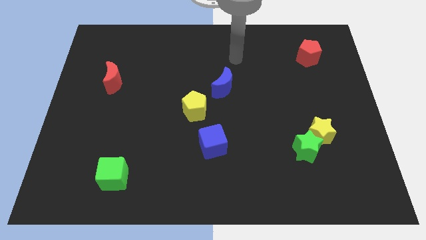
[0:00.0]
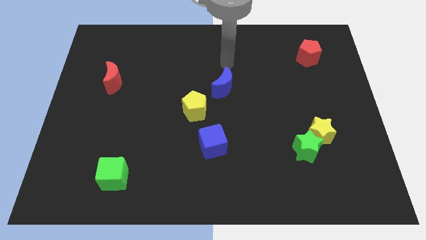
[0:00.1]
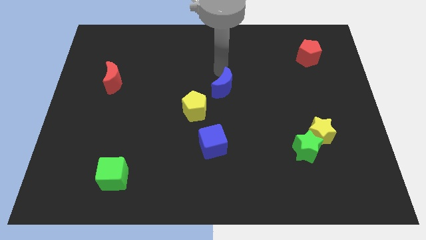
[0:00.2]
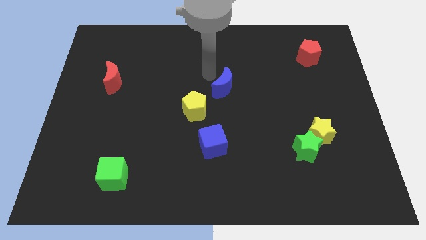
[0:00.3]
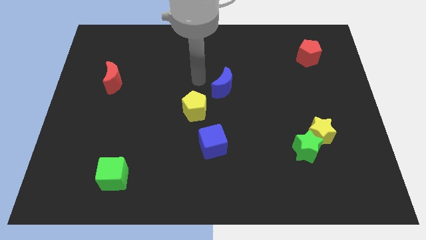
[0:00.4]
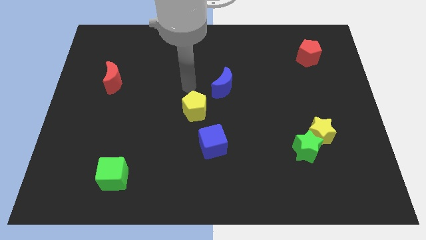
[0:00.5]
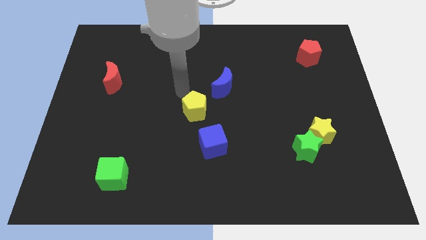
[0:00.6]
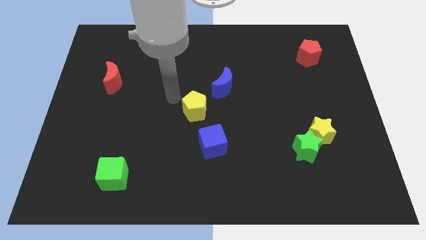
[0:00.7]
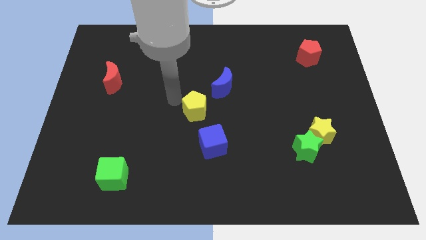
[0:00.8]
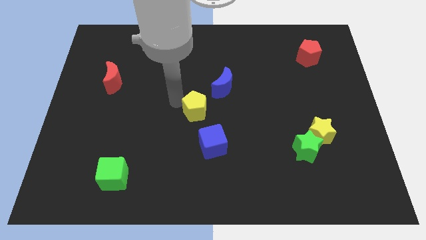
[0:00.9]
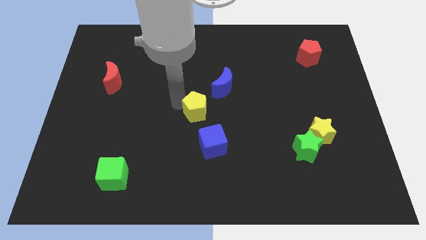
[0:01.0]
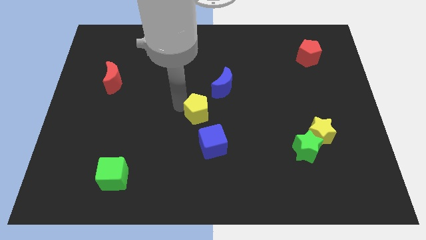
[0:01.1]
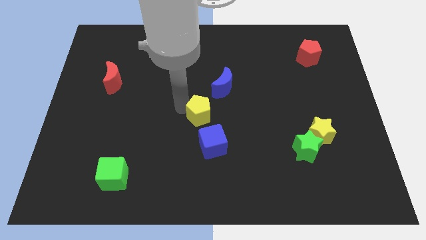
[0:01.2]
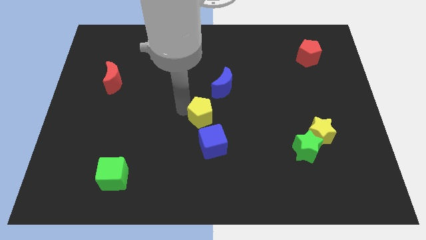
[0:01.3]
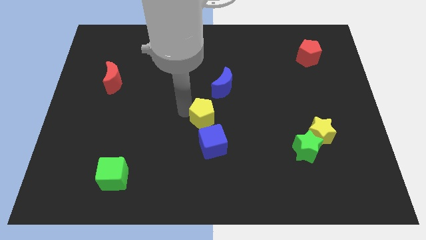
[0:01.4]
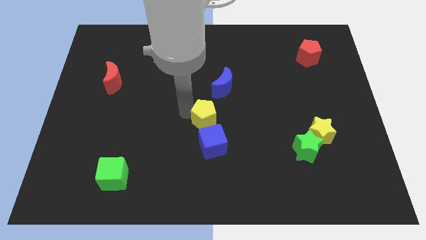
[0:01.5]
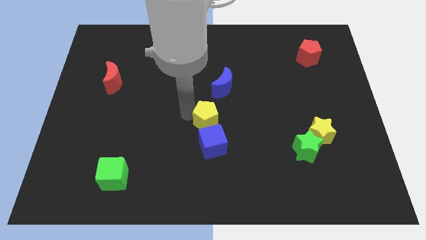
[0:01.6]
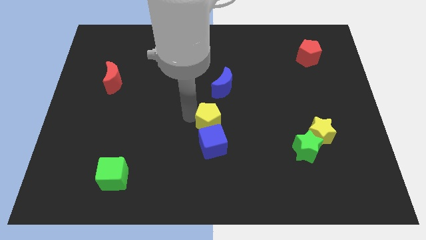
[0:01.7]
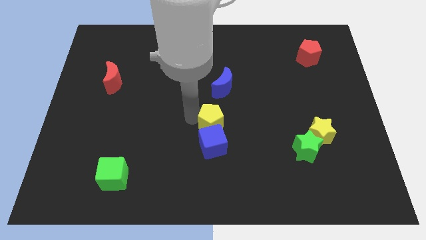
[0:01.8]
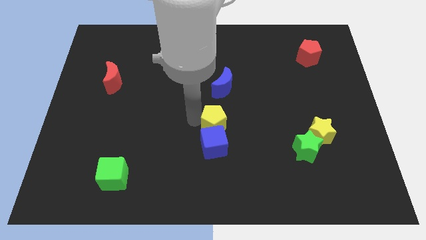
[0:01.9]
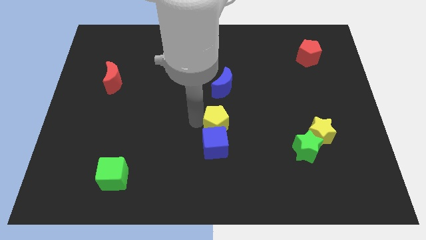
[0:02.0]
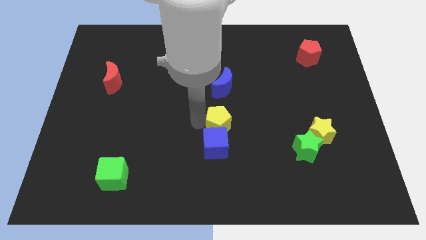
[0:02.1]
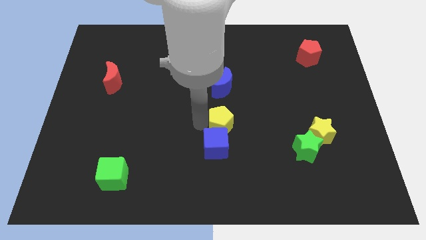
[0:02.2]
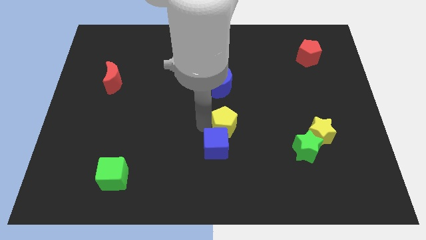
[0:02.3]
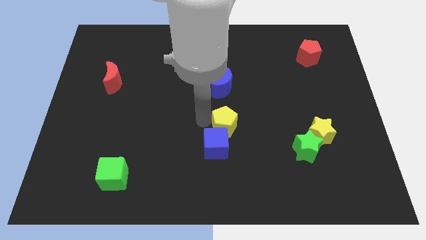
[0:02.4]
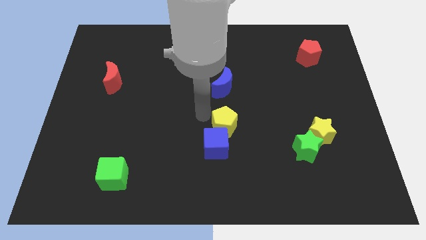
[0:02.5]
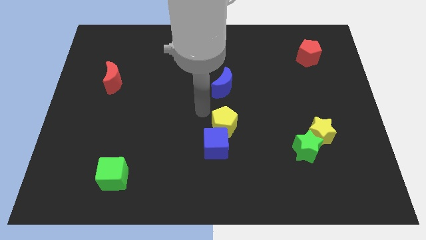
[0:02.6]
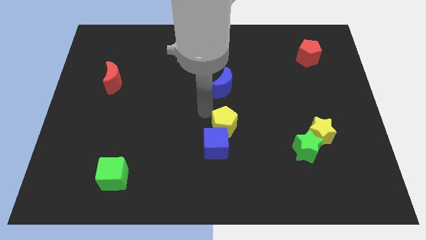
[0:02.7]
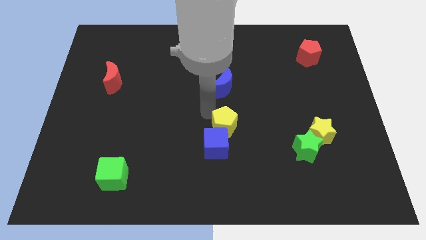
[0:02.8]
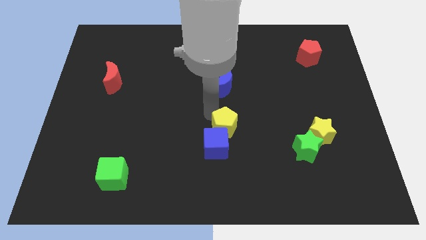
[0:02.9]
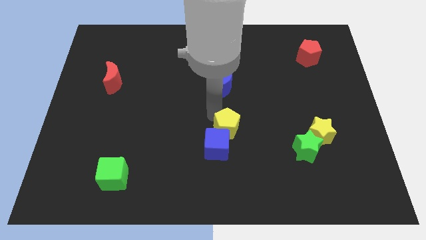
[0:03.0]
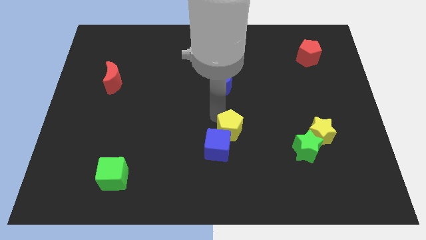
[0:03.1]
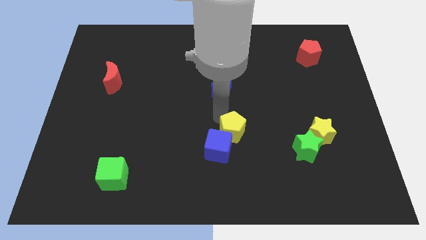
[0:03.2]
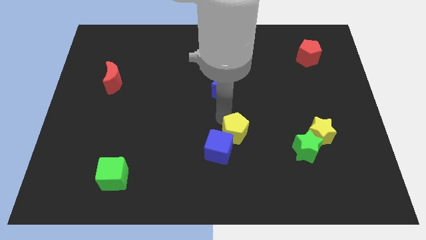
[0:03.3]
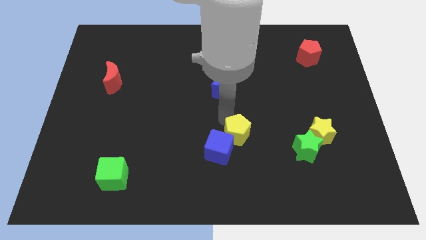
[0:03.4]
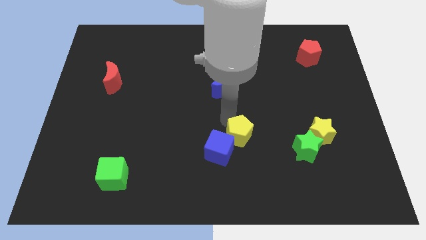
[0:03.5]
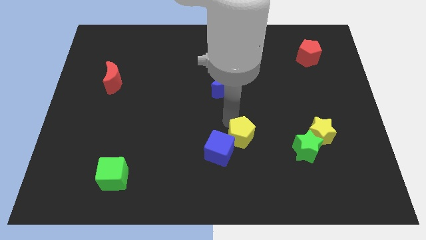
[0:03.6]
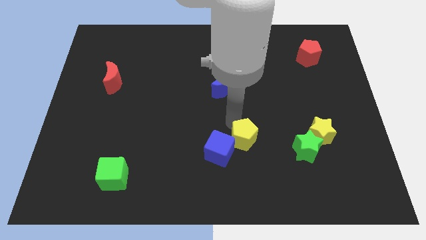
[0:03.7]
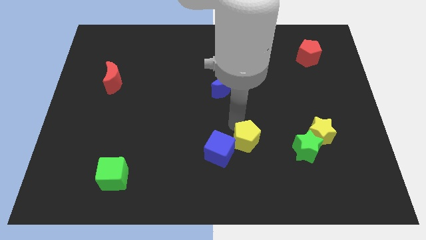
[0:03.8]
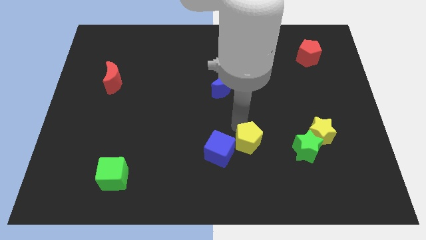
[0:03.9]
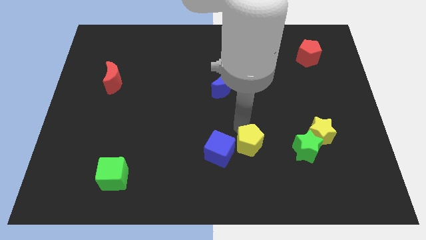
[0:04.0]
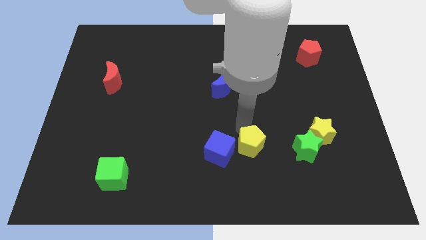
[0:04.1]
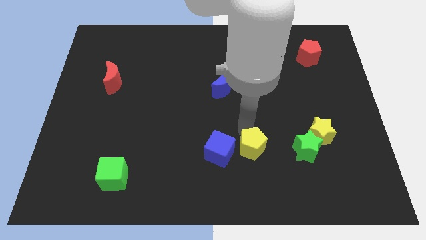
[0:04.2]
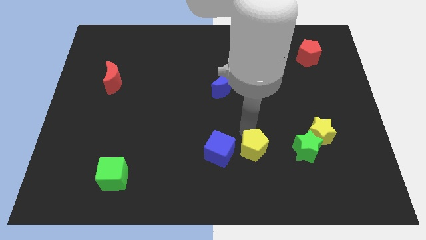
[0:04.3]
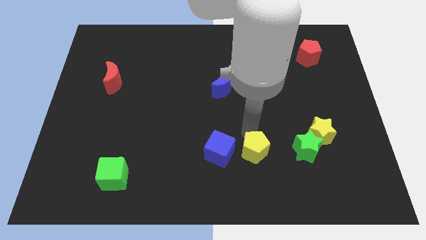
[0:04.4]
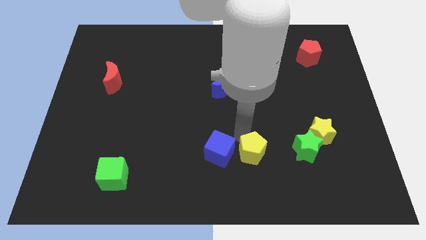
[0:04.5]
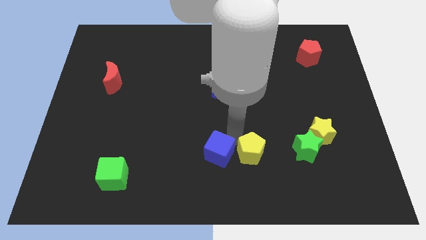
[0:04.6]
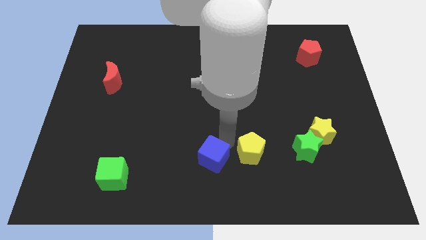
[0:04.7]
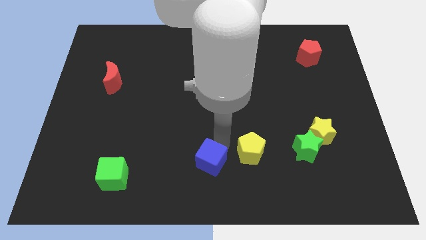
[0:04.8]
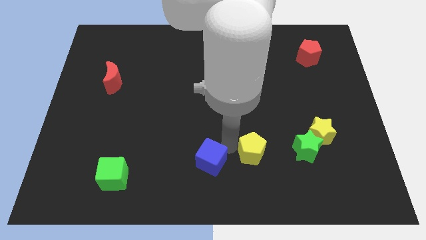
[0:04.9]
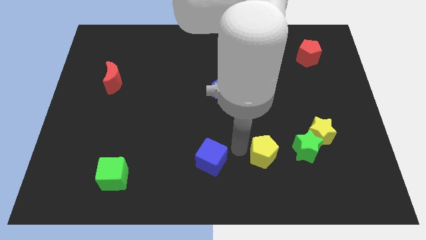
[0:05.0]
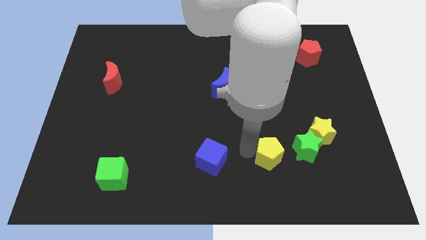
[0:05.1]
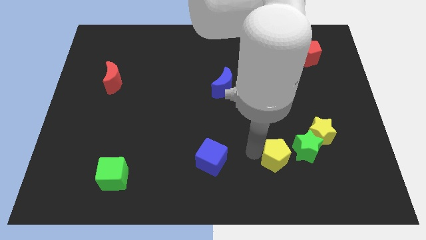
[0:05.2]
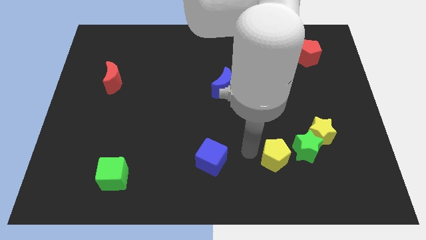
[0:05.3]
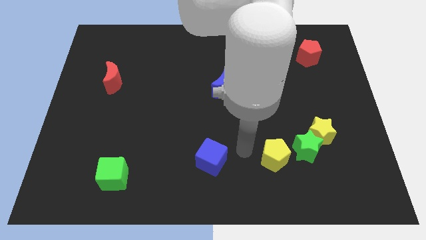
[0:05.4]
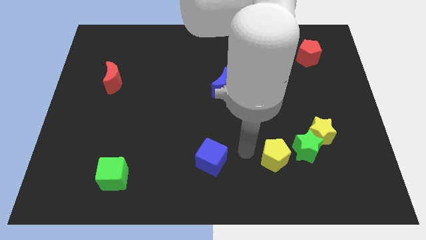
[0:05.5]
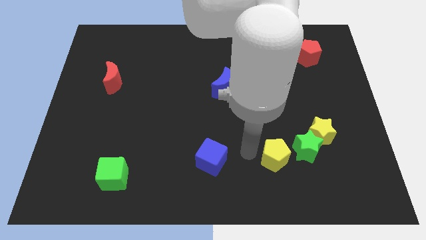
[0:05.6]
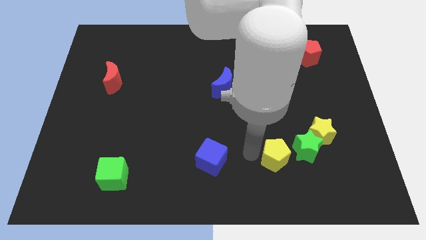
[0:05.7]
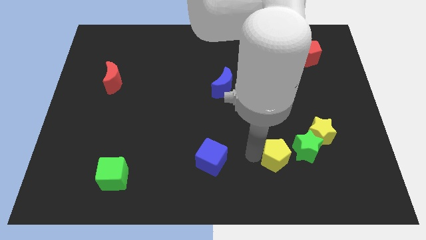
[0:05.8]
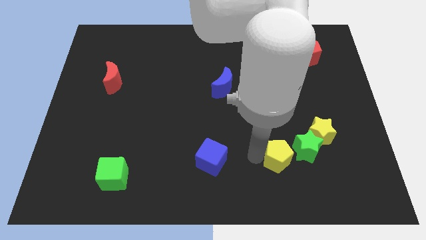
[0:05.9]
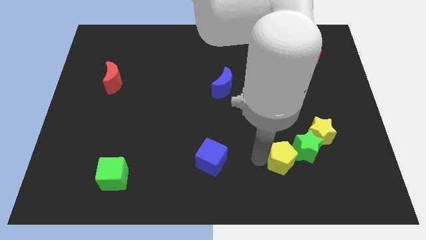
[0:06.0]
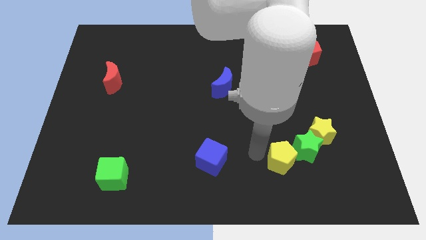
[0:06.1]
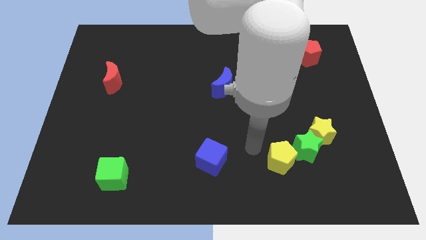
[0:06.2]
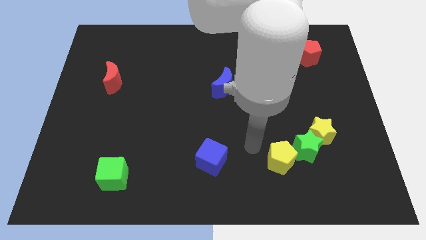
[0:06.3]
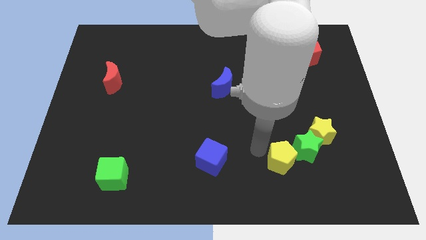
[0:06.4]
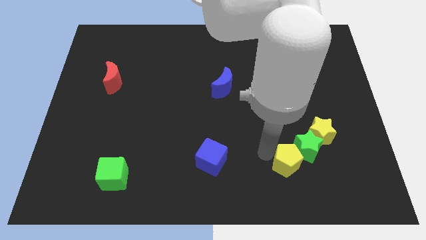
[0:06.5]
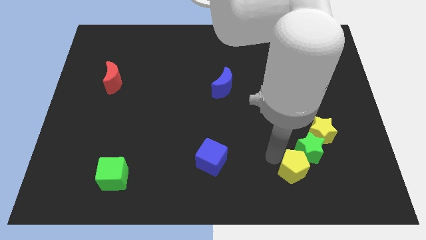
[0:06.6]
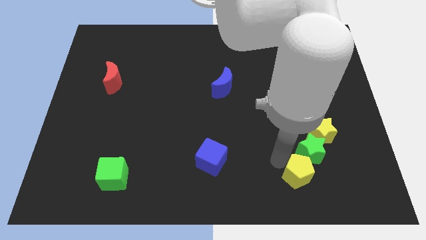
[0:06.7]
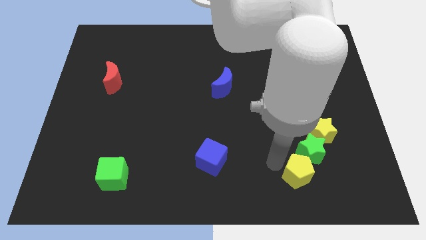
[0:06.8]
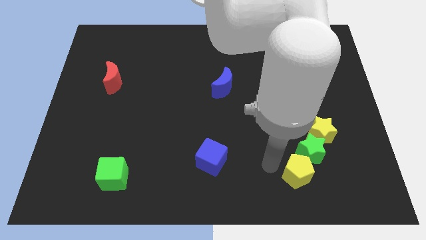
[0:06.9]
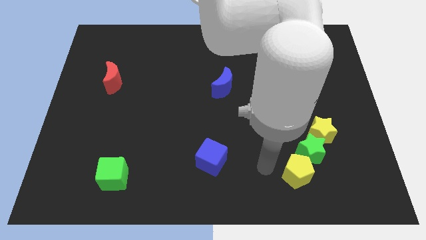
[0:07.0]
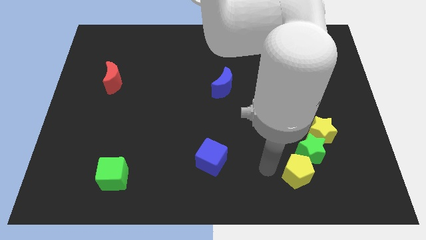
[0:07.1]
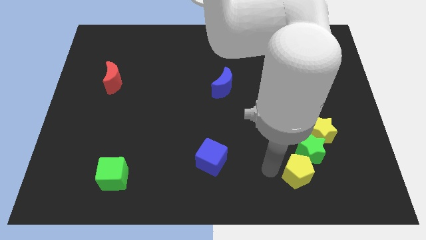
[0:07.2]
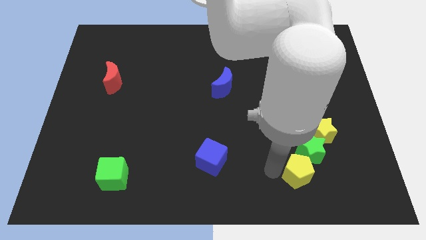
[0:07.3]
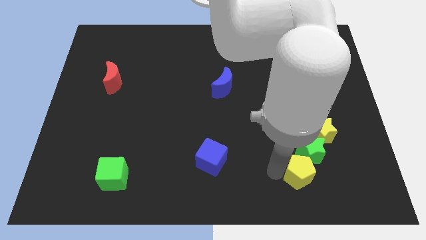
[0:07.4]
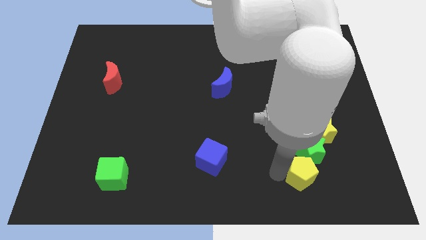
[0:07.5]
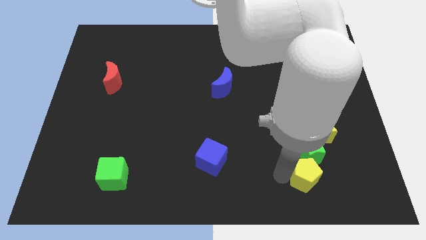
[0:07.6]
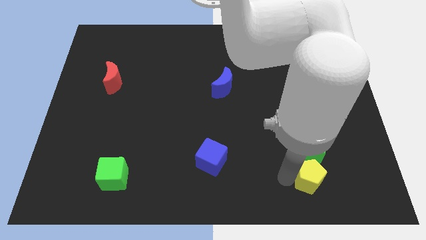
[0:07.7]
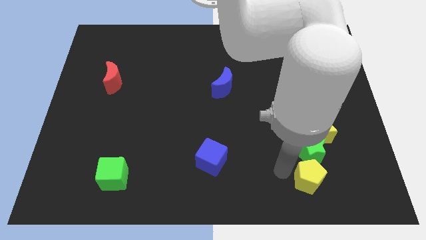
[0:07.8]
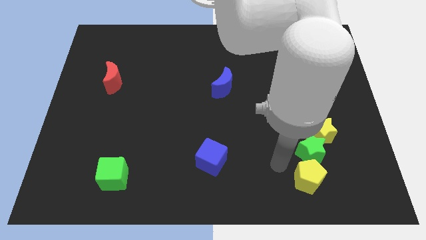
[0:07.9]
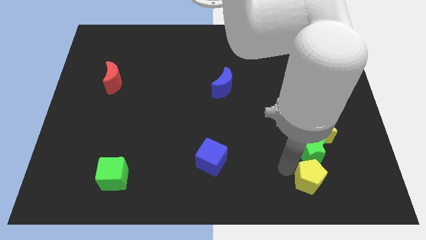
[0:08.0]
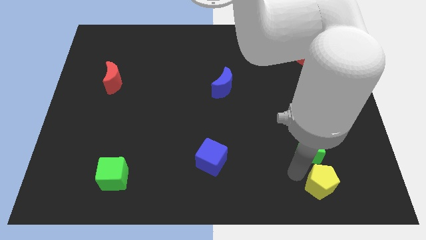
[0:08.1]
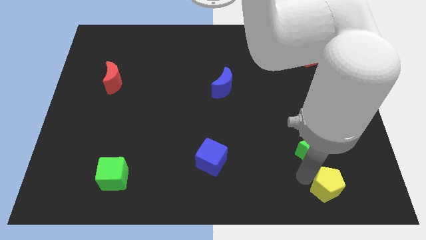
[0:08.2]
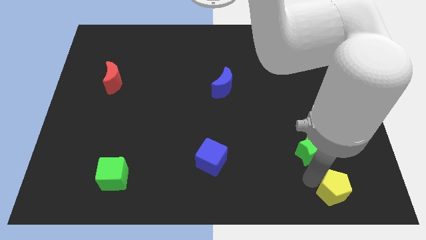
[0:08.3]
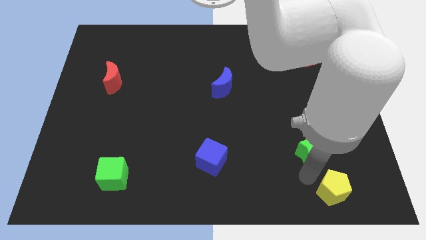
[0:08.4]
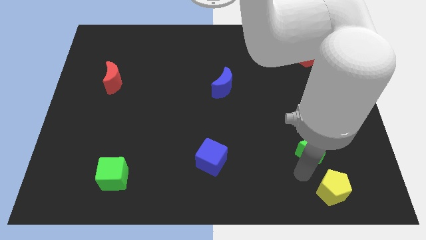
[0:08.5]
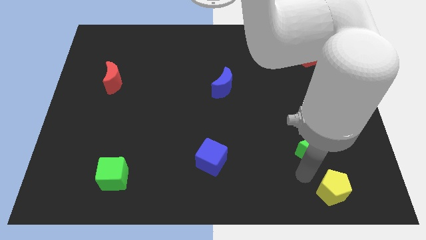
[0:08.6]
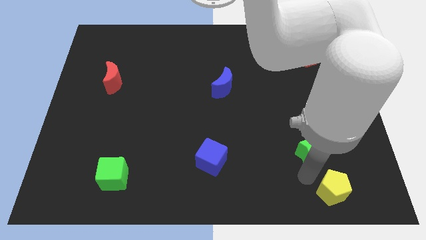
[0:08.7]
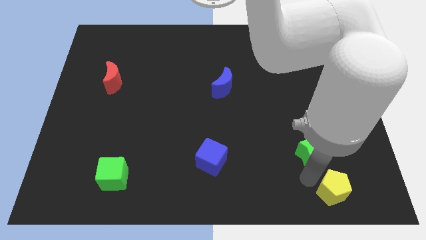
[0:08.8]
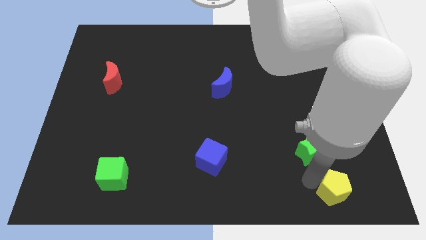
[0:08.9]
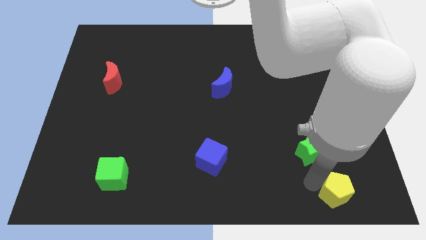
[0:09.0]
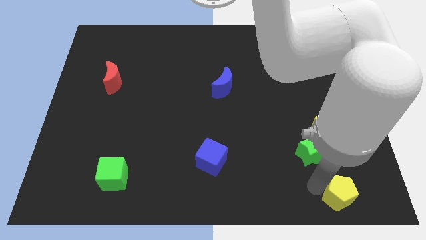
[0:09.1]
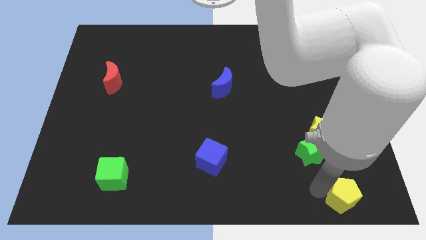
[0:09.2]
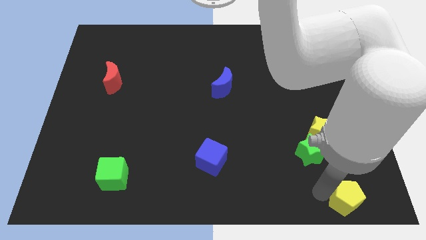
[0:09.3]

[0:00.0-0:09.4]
slide the yellow pentagon to the bottom right of the board
